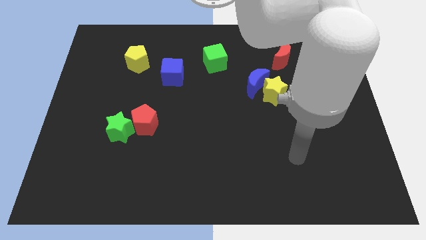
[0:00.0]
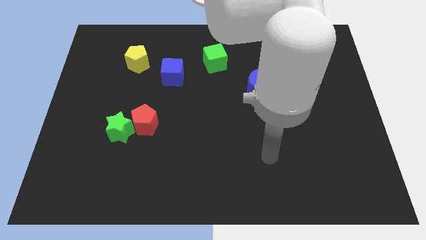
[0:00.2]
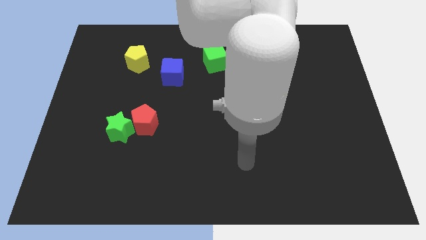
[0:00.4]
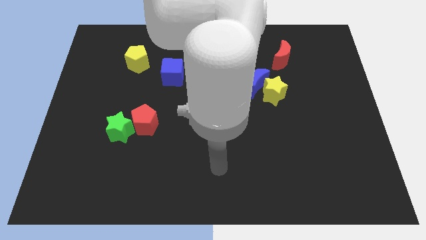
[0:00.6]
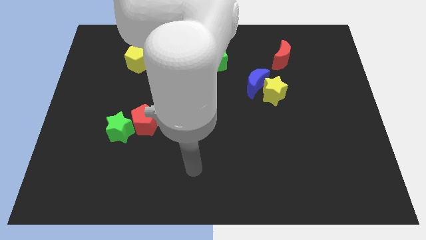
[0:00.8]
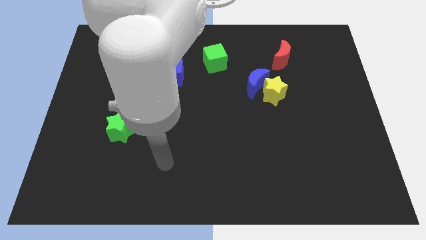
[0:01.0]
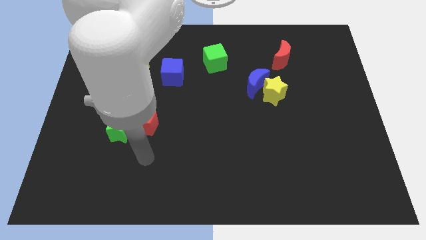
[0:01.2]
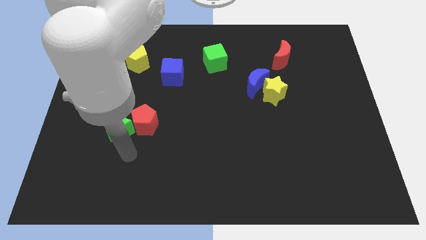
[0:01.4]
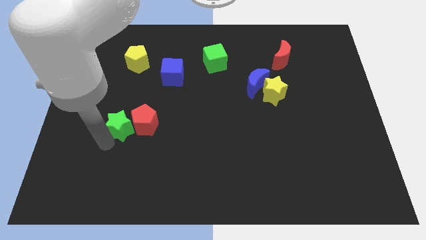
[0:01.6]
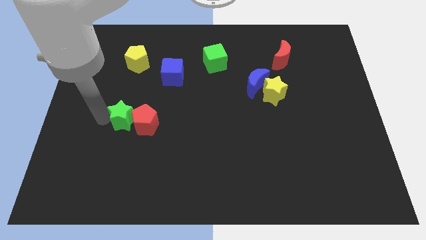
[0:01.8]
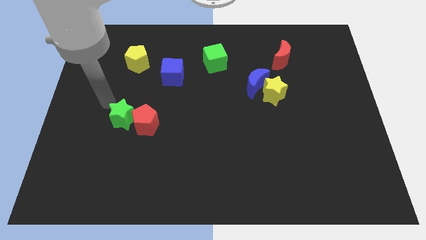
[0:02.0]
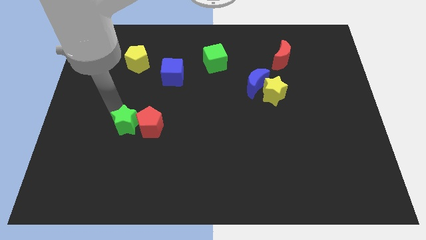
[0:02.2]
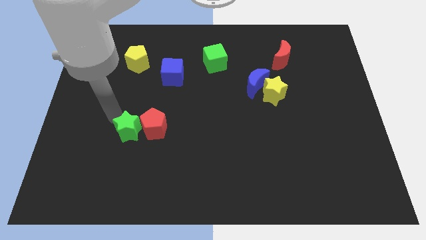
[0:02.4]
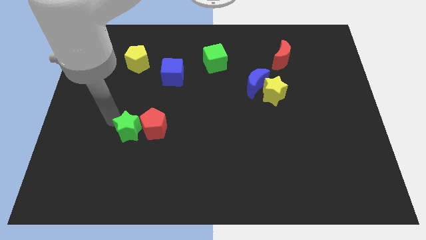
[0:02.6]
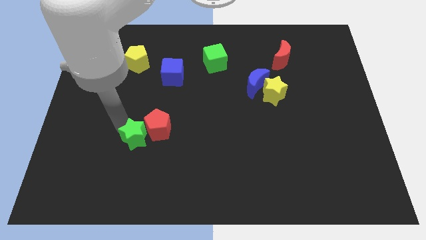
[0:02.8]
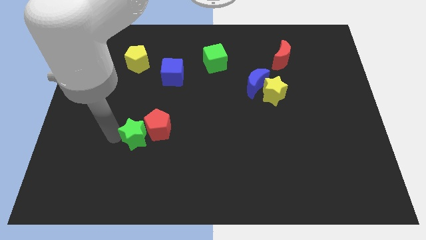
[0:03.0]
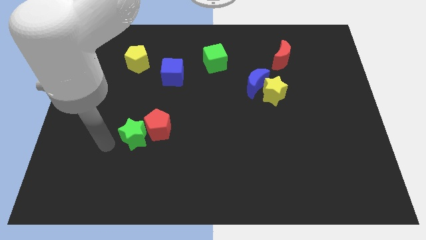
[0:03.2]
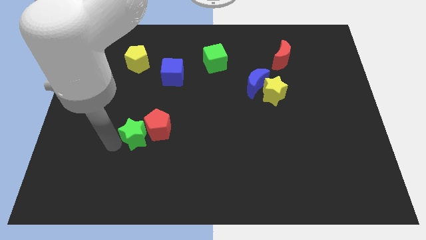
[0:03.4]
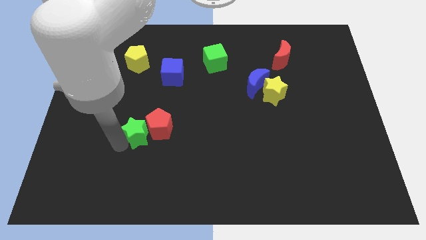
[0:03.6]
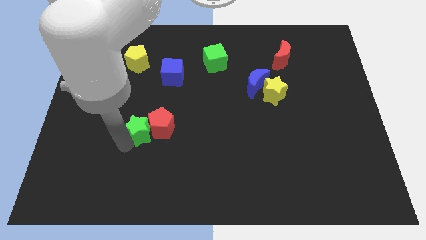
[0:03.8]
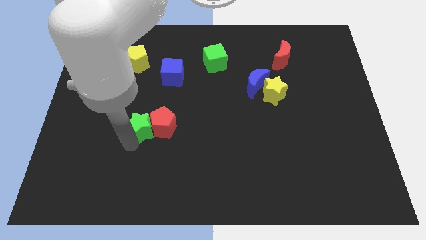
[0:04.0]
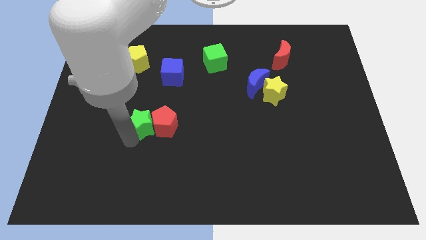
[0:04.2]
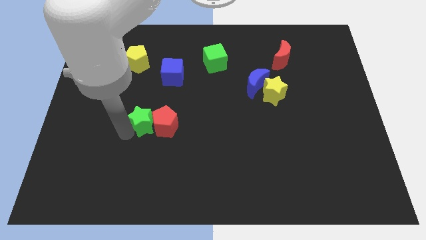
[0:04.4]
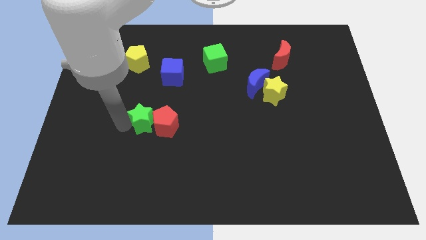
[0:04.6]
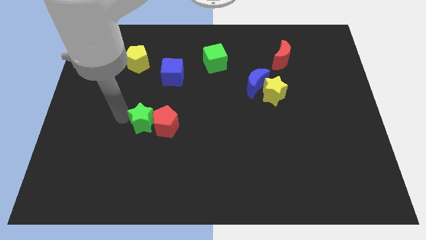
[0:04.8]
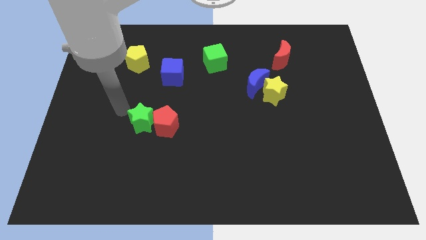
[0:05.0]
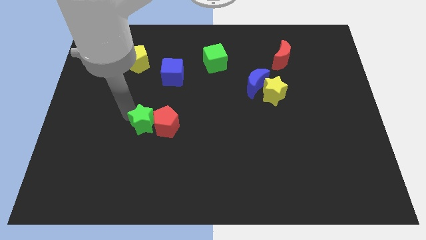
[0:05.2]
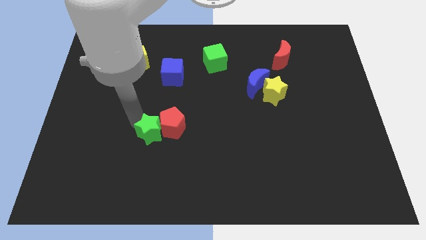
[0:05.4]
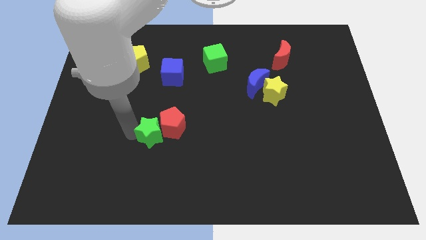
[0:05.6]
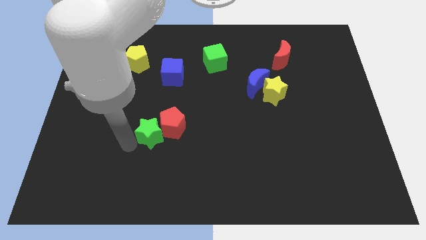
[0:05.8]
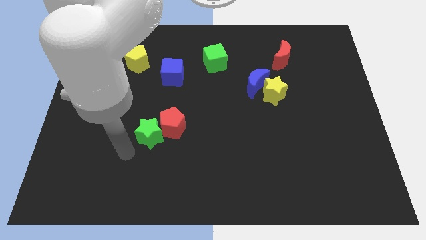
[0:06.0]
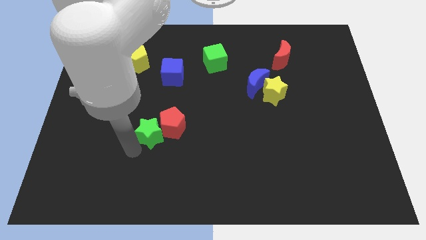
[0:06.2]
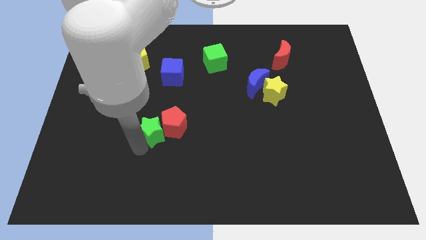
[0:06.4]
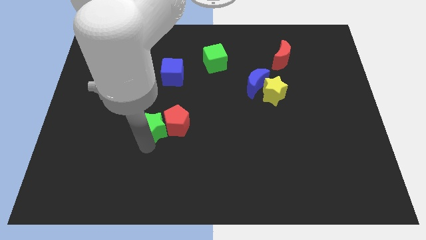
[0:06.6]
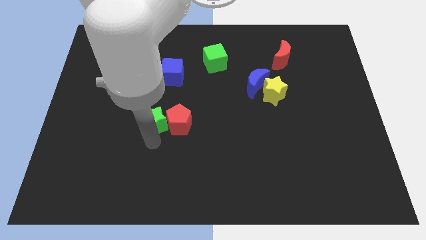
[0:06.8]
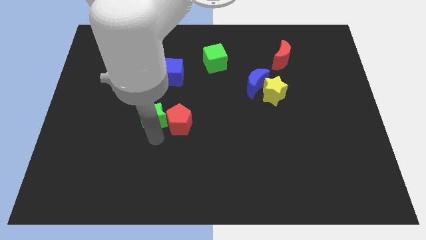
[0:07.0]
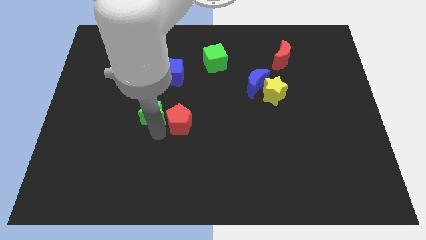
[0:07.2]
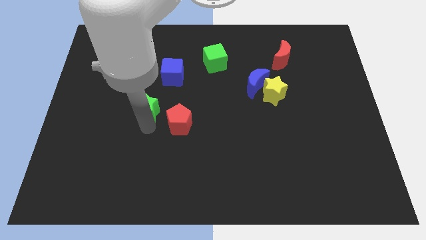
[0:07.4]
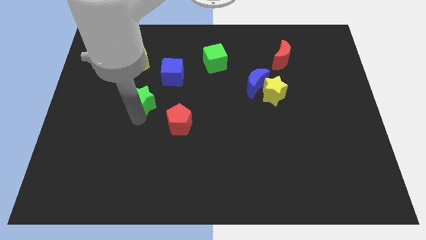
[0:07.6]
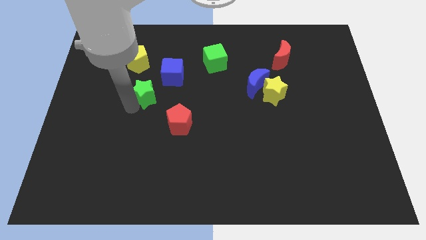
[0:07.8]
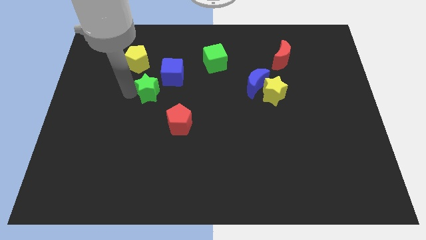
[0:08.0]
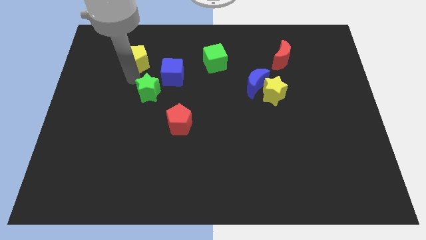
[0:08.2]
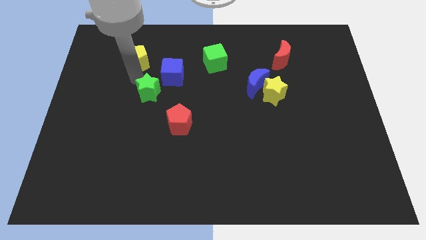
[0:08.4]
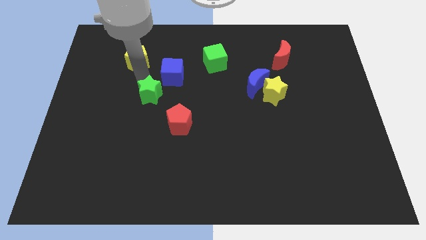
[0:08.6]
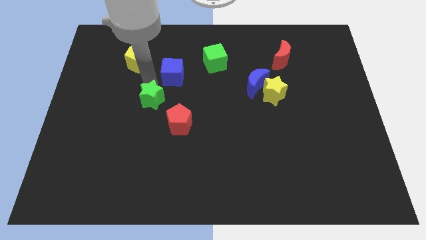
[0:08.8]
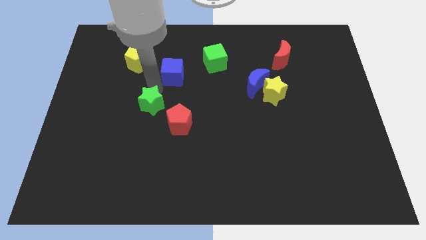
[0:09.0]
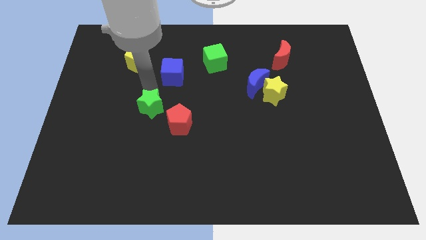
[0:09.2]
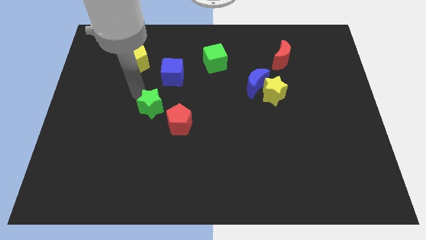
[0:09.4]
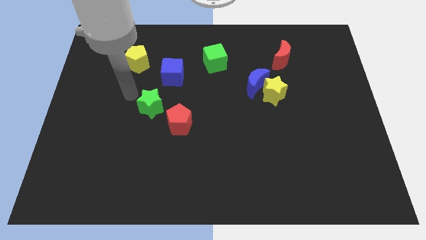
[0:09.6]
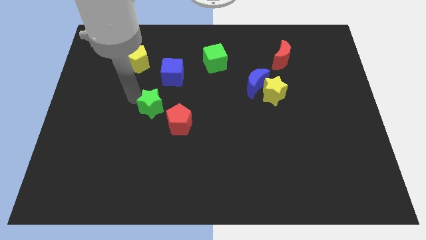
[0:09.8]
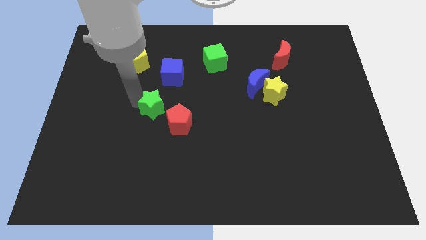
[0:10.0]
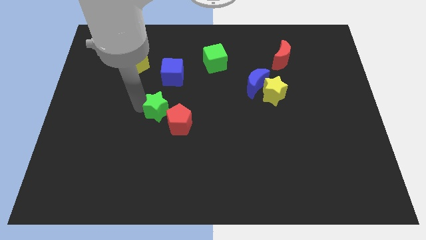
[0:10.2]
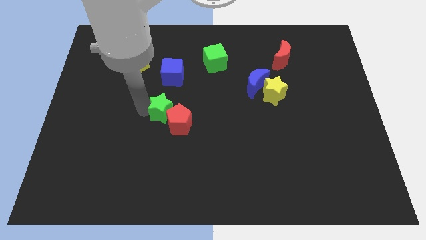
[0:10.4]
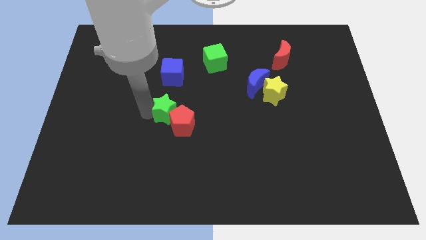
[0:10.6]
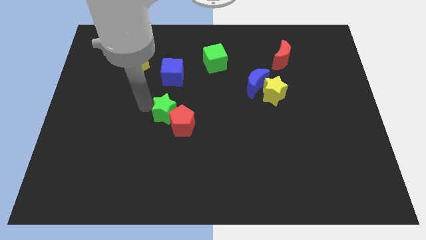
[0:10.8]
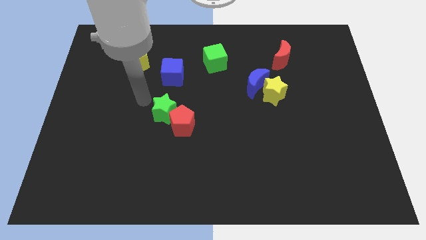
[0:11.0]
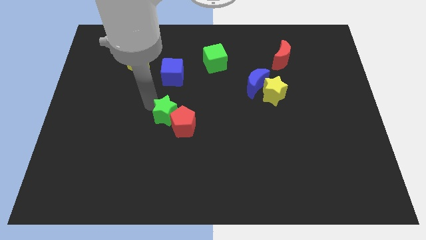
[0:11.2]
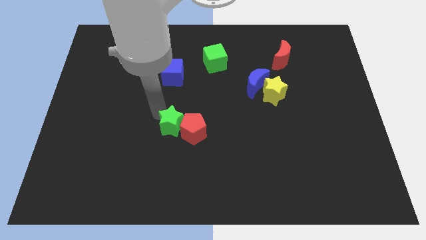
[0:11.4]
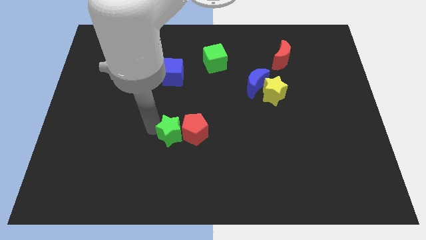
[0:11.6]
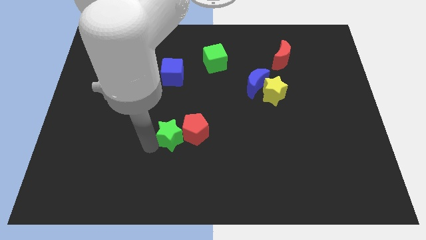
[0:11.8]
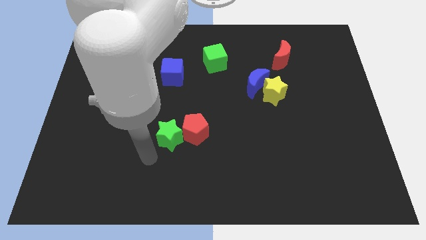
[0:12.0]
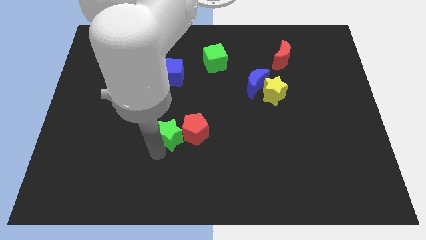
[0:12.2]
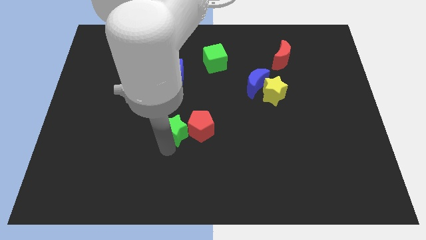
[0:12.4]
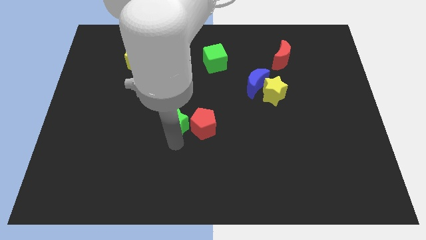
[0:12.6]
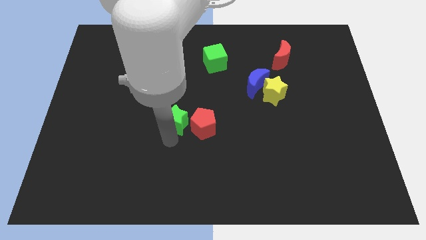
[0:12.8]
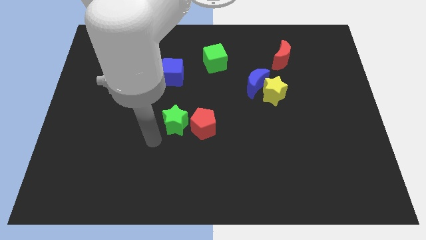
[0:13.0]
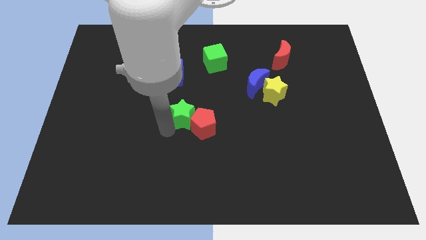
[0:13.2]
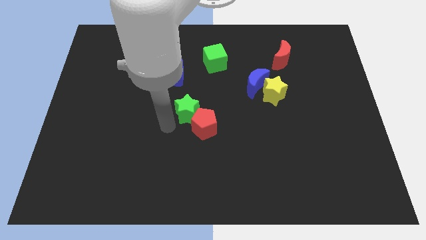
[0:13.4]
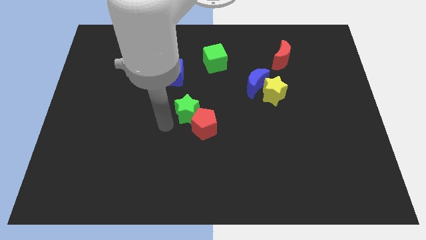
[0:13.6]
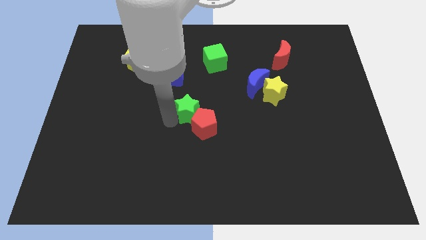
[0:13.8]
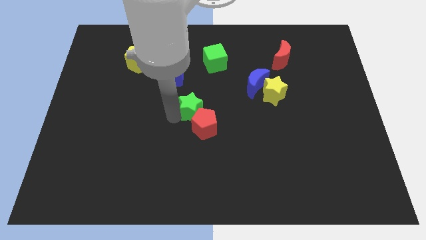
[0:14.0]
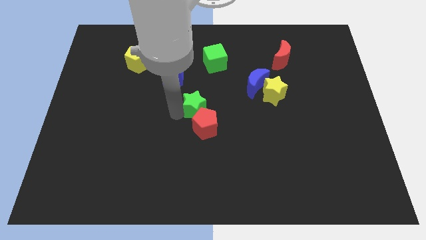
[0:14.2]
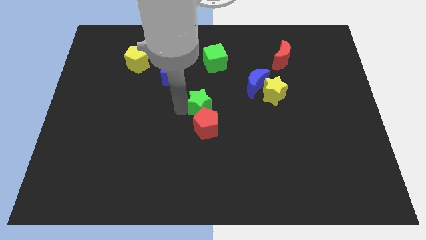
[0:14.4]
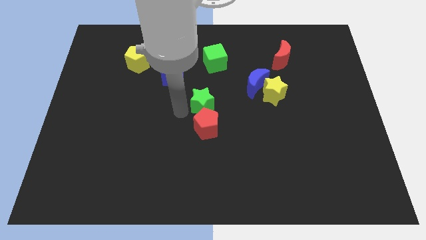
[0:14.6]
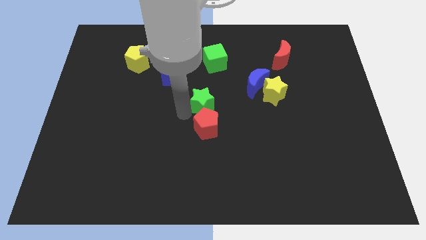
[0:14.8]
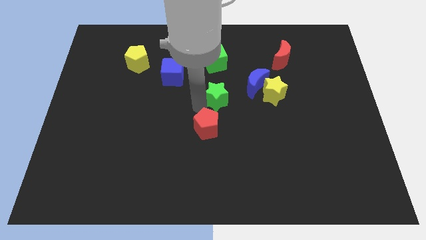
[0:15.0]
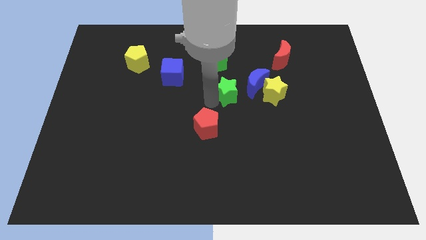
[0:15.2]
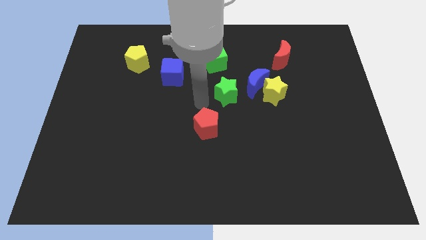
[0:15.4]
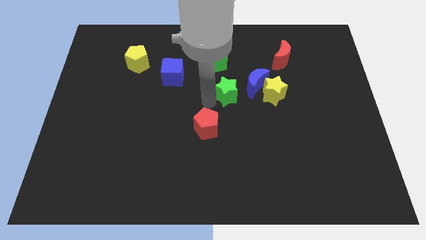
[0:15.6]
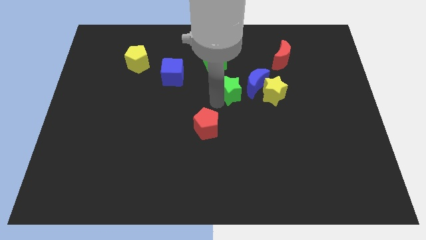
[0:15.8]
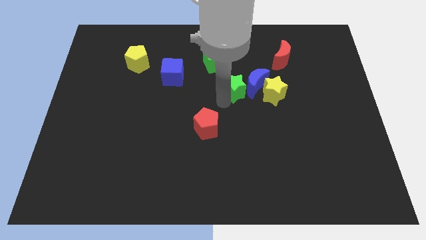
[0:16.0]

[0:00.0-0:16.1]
move the green star towards the blue moon
